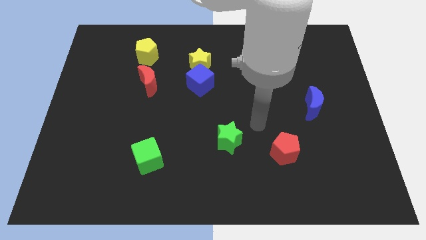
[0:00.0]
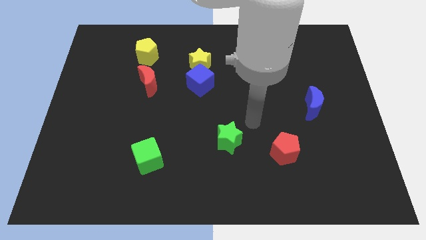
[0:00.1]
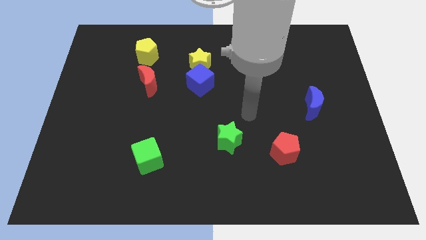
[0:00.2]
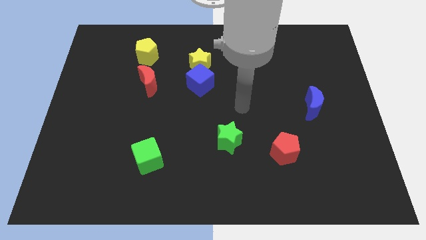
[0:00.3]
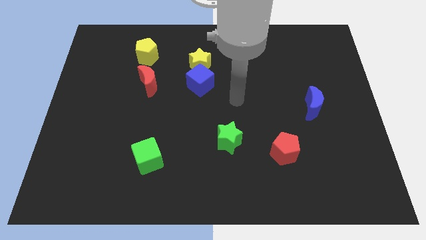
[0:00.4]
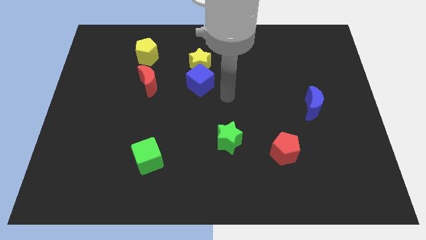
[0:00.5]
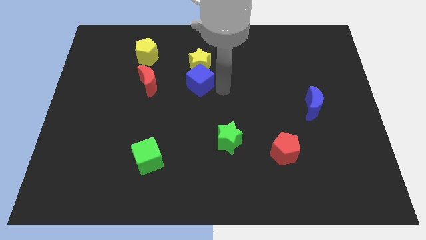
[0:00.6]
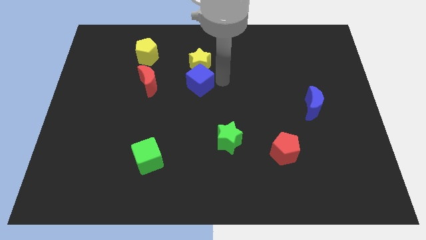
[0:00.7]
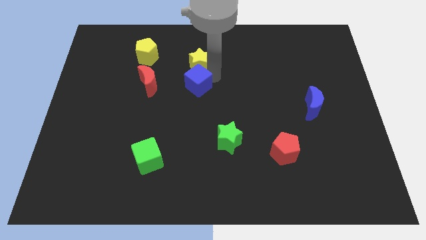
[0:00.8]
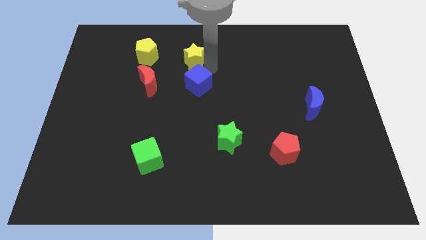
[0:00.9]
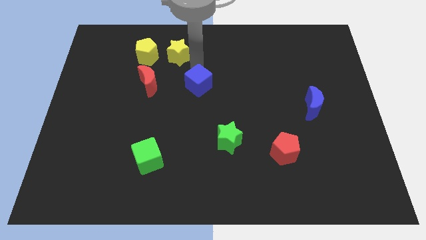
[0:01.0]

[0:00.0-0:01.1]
move the blue cube away from the yellow star

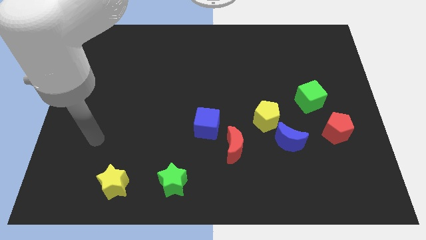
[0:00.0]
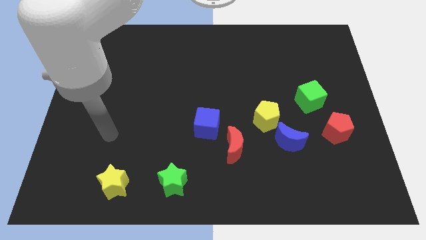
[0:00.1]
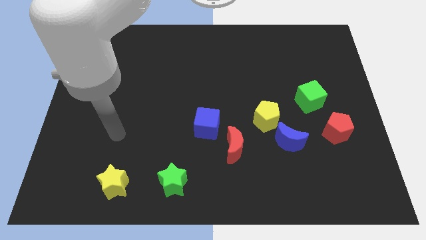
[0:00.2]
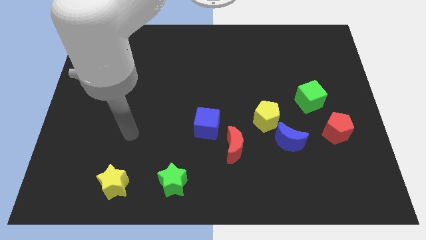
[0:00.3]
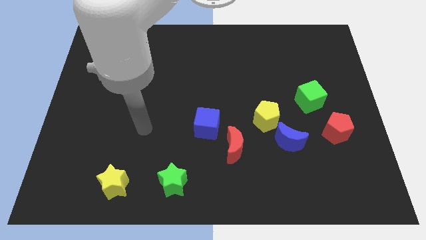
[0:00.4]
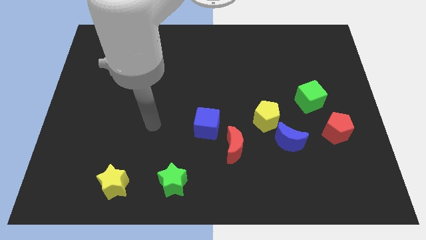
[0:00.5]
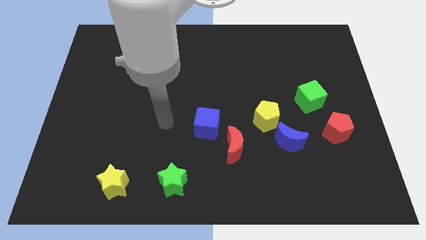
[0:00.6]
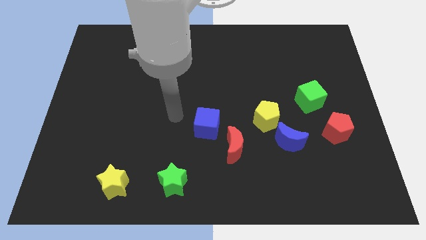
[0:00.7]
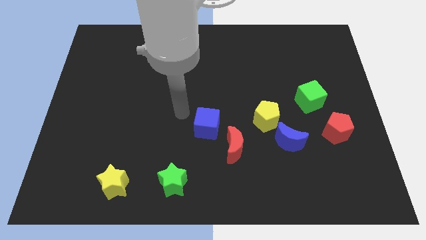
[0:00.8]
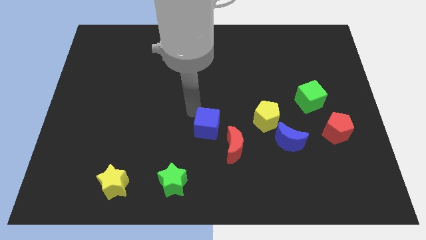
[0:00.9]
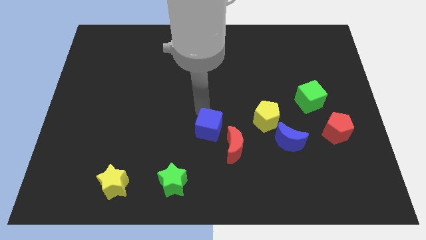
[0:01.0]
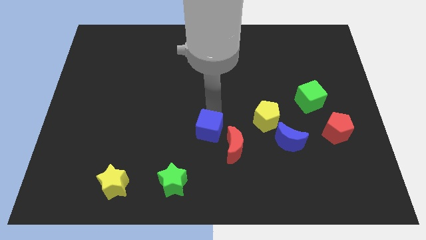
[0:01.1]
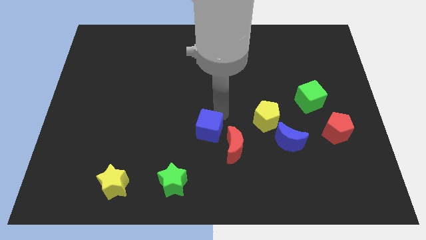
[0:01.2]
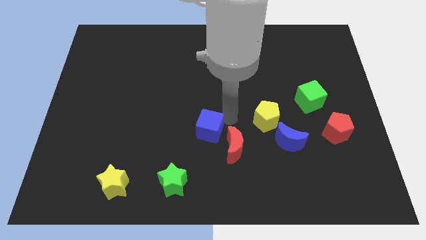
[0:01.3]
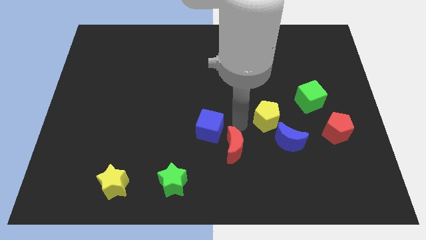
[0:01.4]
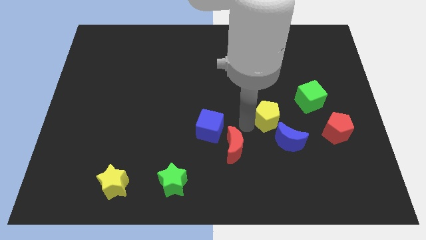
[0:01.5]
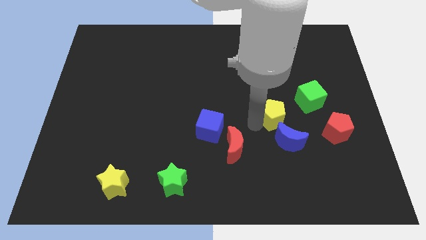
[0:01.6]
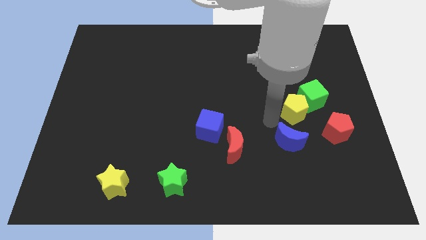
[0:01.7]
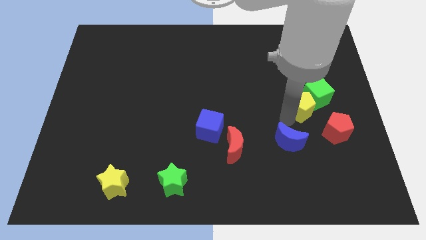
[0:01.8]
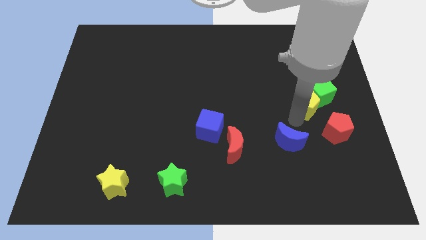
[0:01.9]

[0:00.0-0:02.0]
move the blue moon away from the yellow pentagon

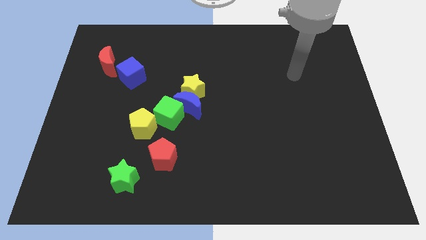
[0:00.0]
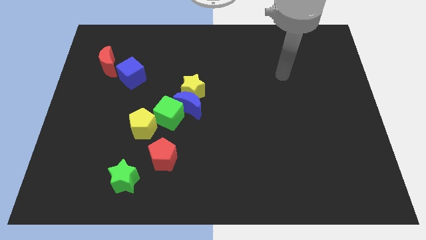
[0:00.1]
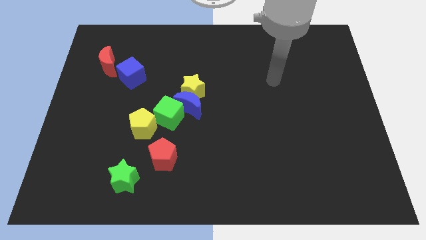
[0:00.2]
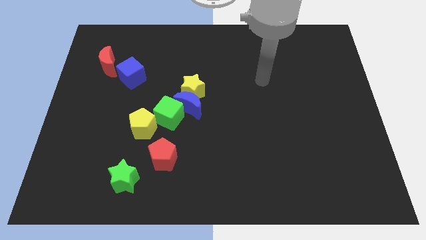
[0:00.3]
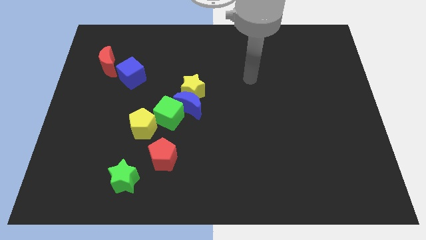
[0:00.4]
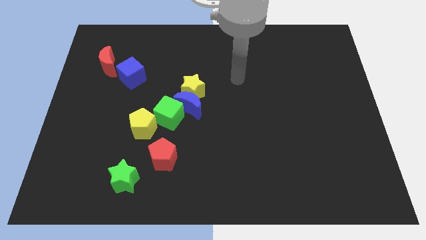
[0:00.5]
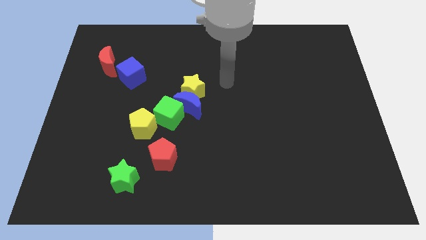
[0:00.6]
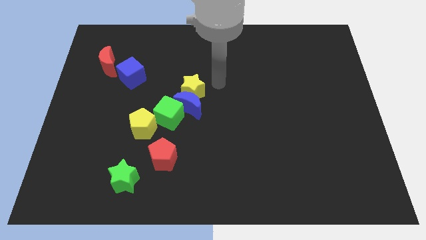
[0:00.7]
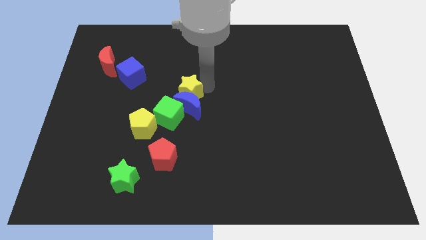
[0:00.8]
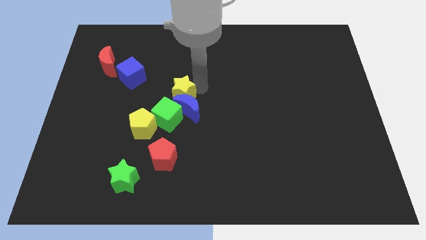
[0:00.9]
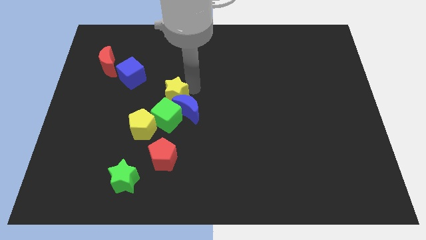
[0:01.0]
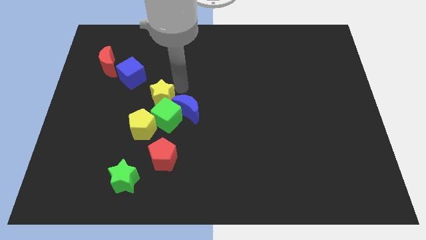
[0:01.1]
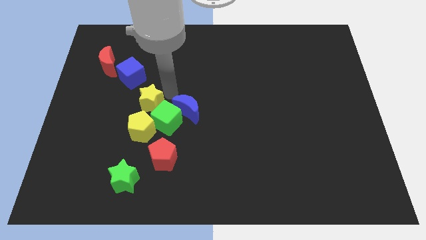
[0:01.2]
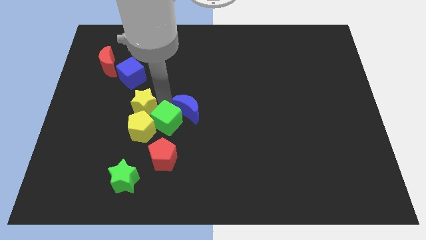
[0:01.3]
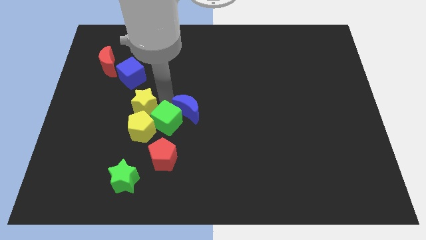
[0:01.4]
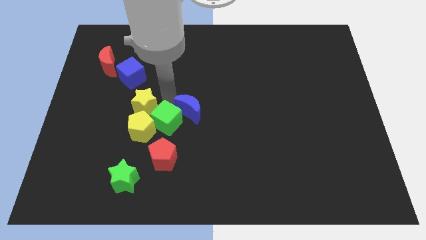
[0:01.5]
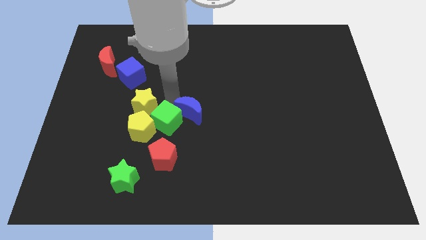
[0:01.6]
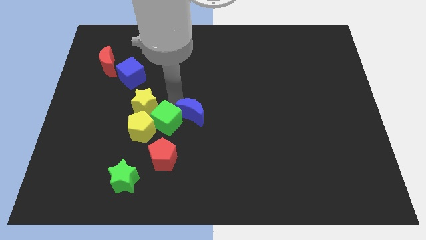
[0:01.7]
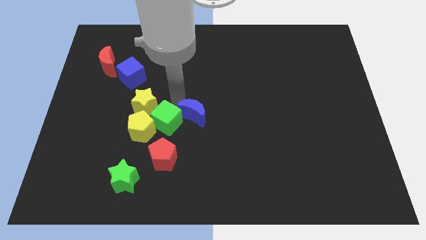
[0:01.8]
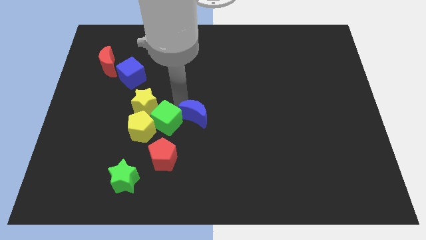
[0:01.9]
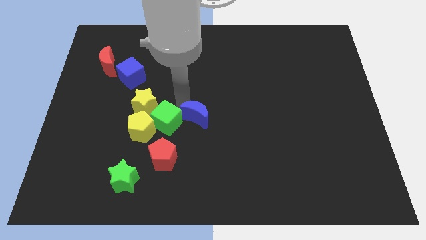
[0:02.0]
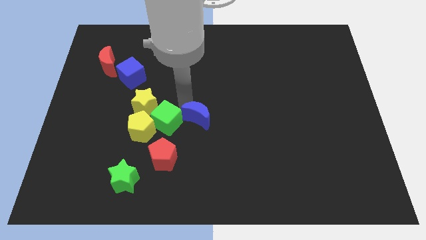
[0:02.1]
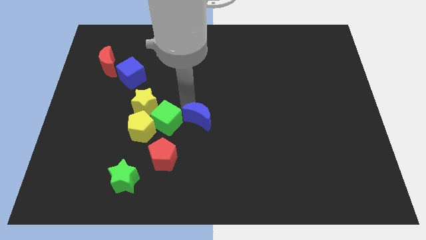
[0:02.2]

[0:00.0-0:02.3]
move the blue moon away from the yellow star and green cube

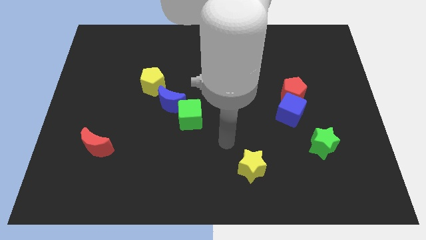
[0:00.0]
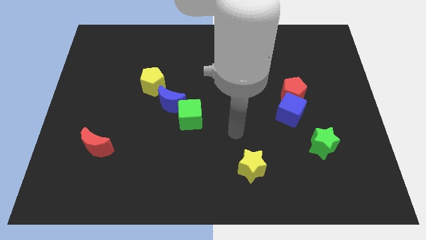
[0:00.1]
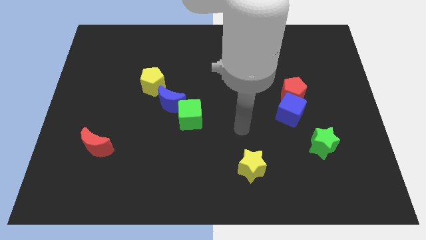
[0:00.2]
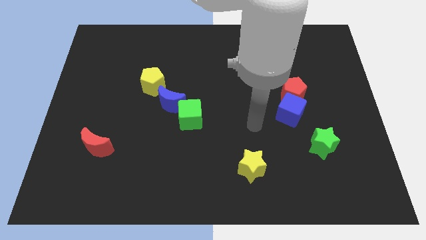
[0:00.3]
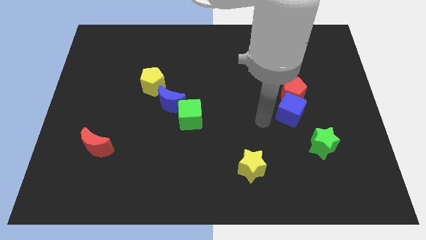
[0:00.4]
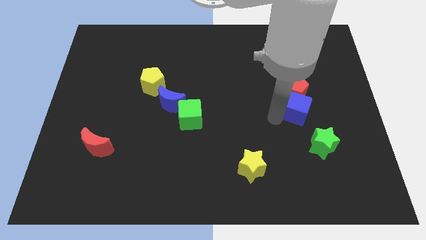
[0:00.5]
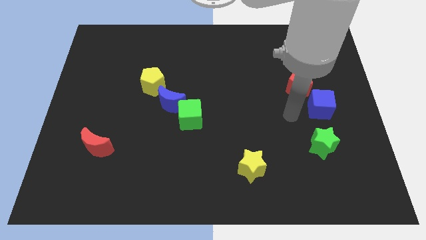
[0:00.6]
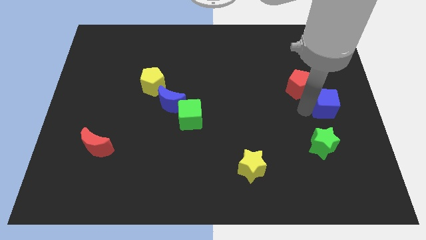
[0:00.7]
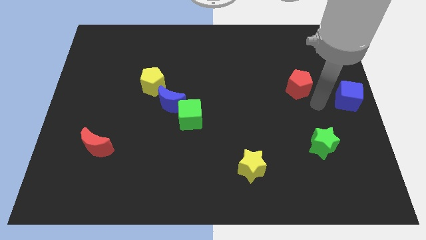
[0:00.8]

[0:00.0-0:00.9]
move the red pentagon away from the blue cube

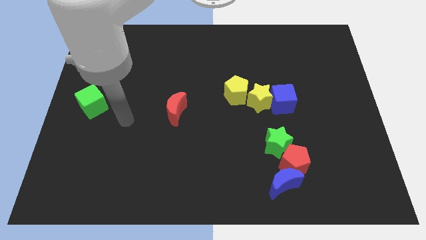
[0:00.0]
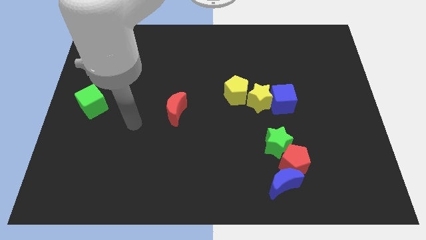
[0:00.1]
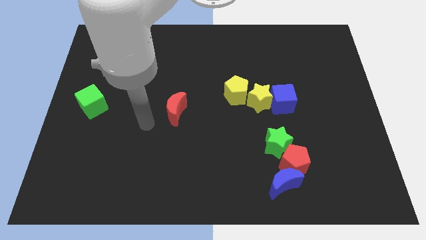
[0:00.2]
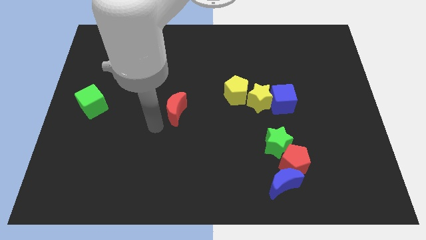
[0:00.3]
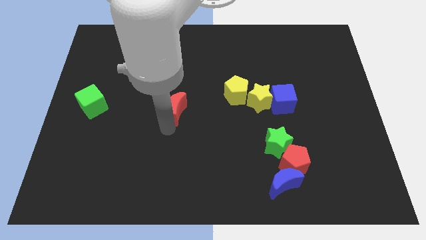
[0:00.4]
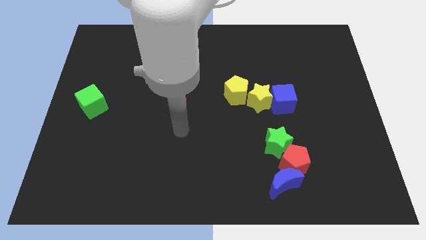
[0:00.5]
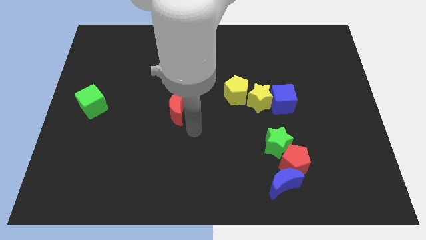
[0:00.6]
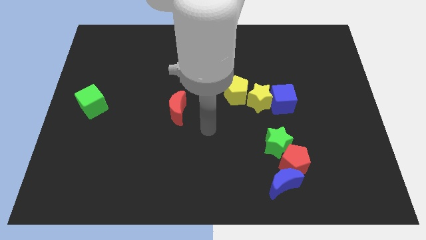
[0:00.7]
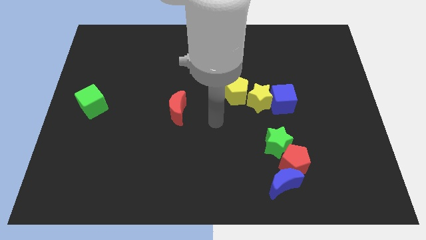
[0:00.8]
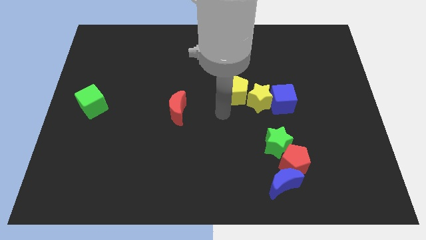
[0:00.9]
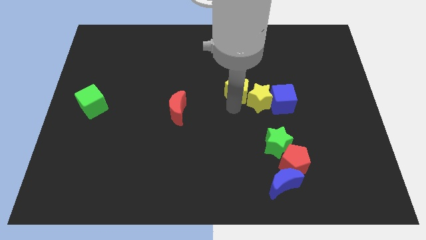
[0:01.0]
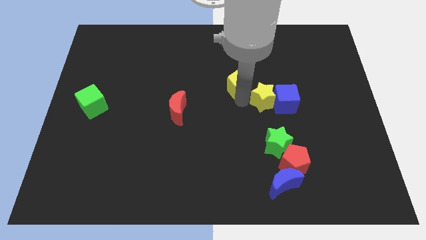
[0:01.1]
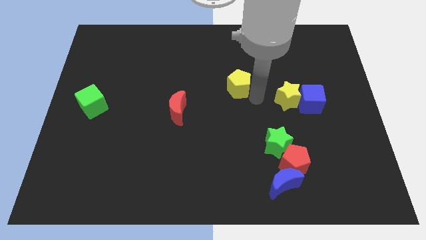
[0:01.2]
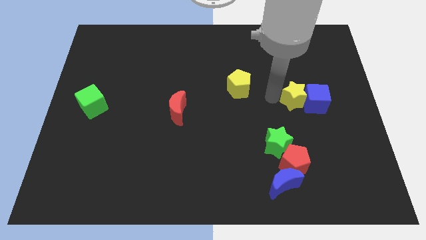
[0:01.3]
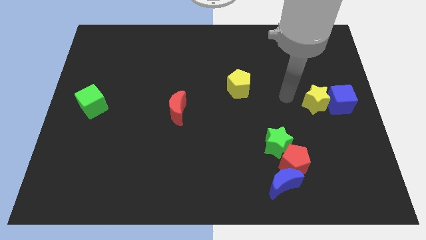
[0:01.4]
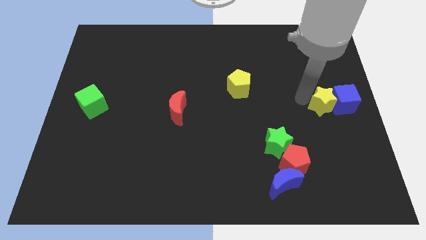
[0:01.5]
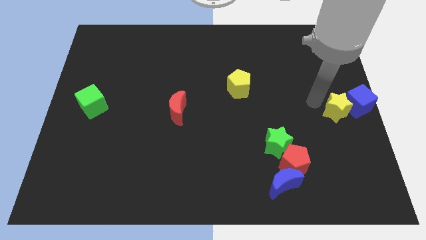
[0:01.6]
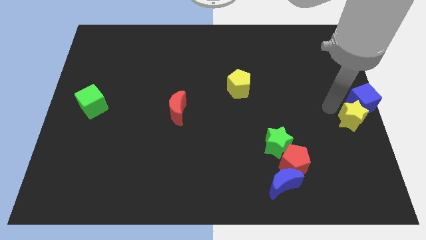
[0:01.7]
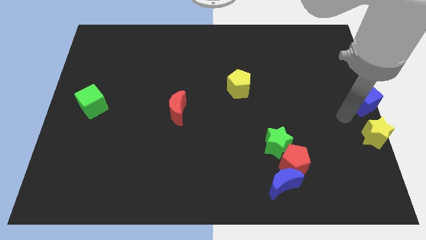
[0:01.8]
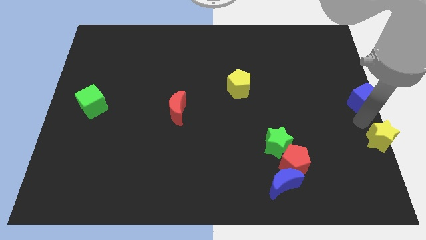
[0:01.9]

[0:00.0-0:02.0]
pull the blue cube apart from the yellow star

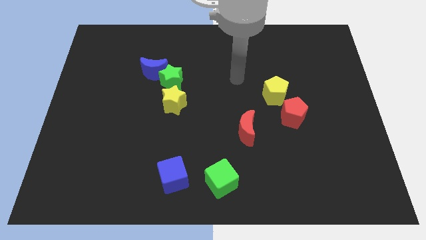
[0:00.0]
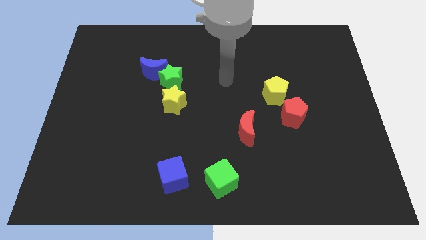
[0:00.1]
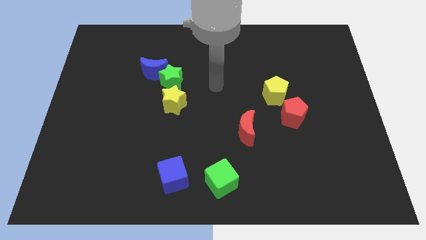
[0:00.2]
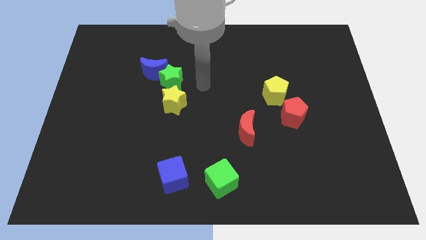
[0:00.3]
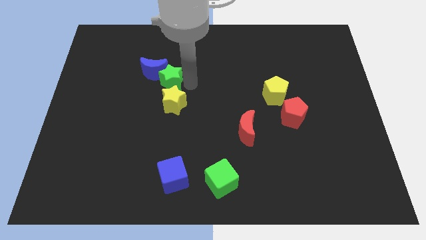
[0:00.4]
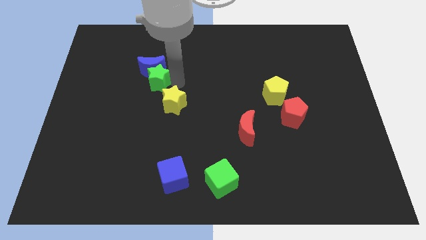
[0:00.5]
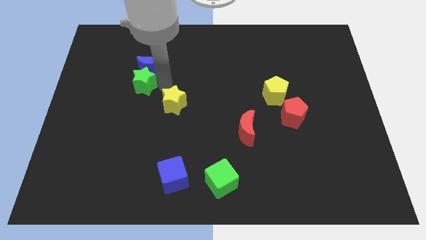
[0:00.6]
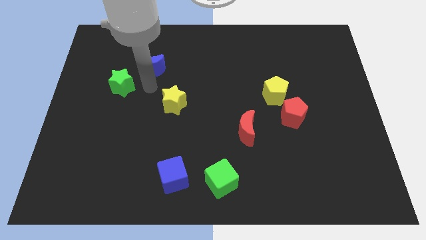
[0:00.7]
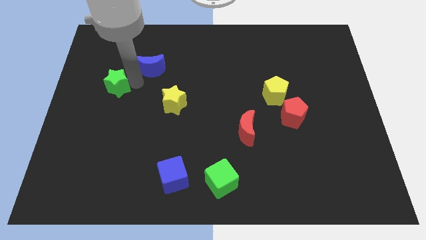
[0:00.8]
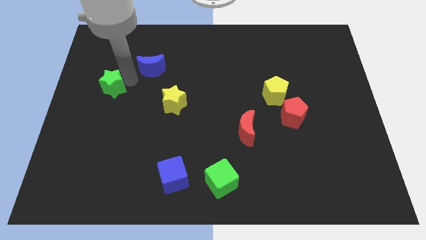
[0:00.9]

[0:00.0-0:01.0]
move the blue moon away from the green star
